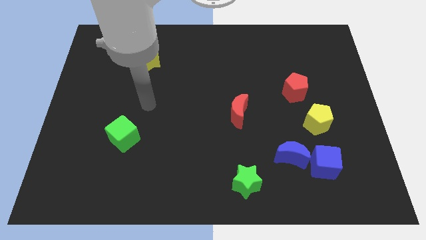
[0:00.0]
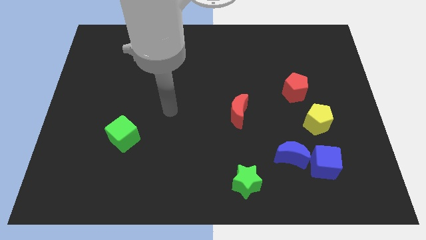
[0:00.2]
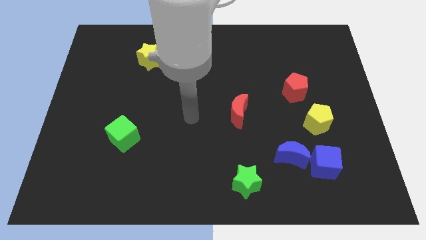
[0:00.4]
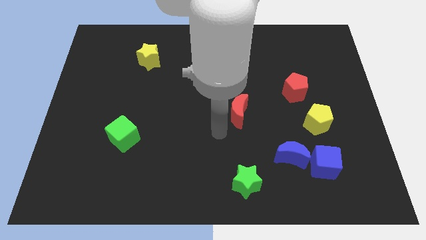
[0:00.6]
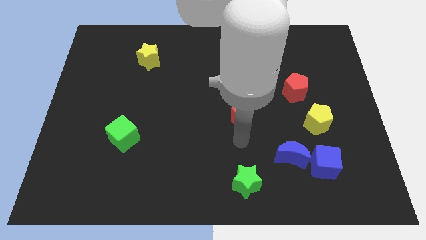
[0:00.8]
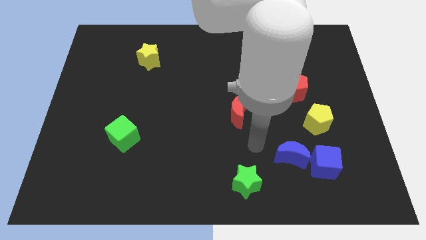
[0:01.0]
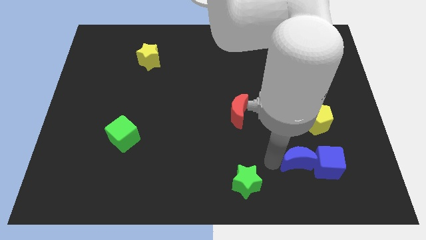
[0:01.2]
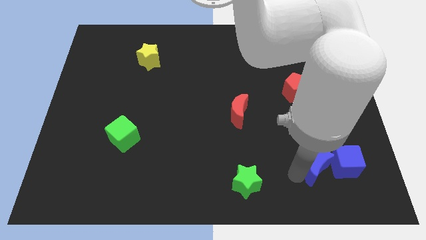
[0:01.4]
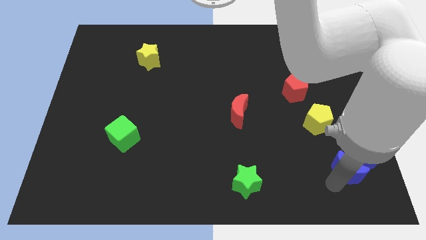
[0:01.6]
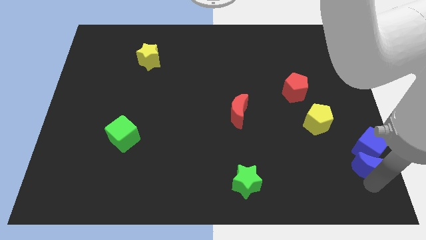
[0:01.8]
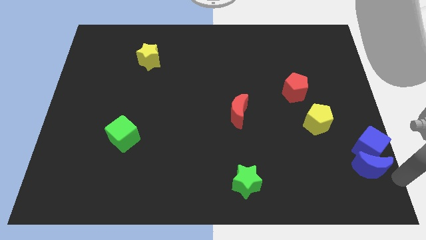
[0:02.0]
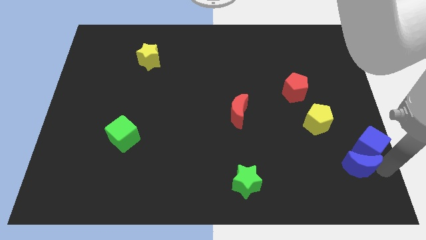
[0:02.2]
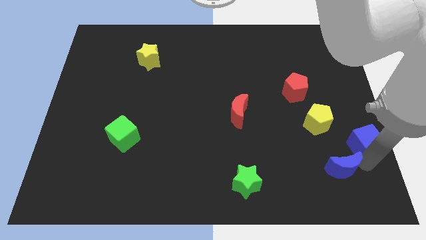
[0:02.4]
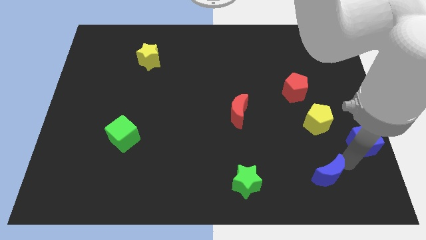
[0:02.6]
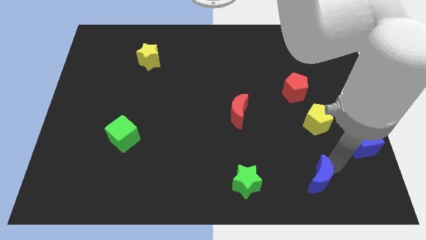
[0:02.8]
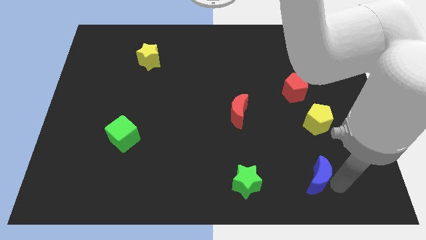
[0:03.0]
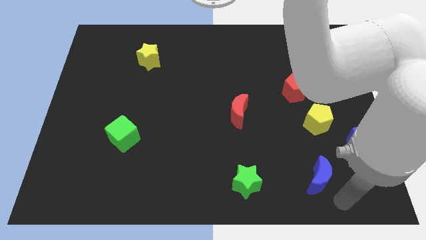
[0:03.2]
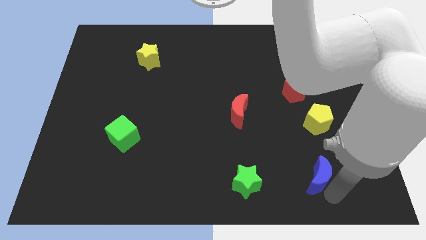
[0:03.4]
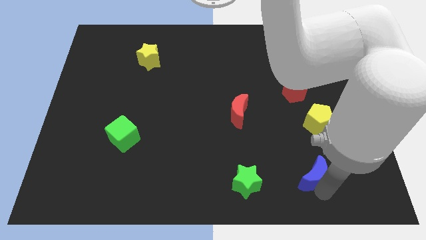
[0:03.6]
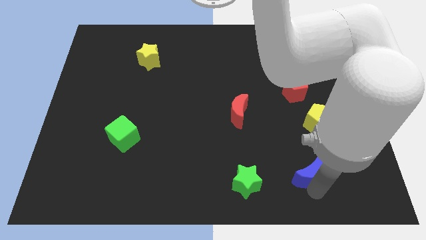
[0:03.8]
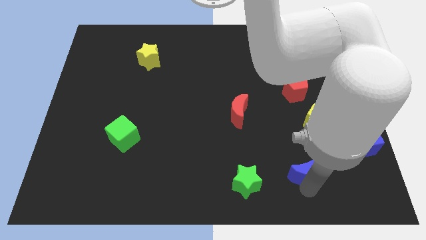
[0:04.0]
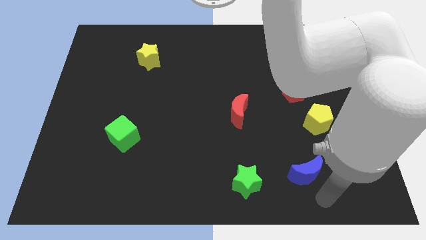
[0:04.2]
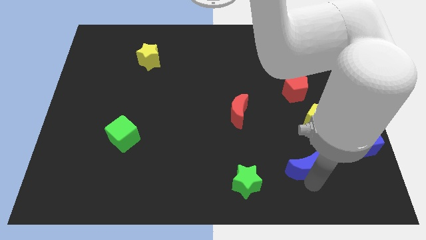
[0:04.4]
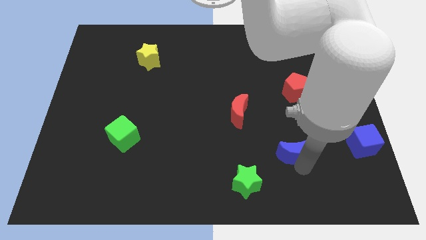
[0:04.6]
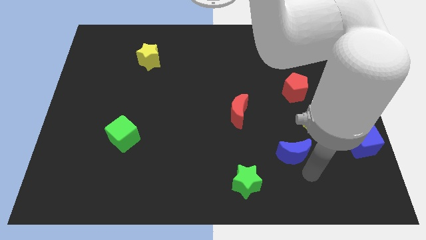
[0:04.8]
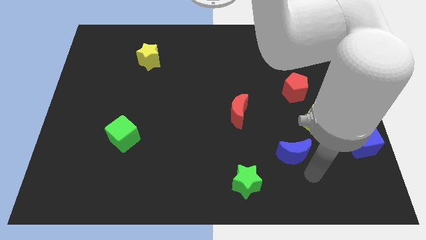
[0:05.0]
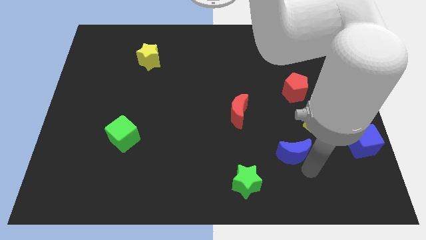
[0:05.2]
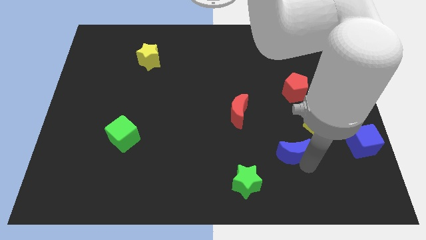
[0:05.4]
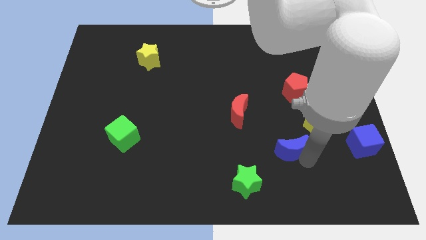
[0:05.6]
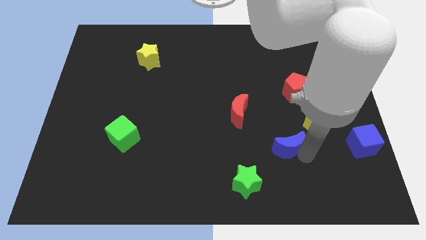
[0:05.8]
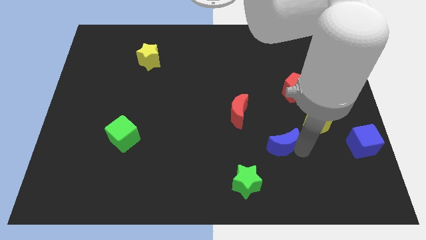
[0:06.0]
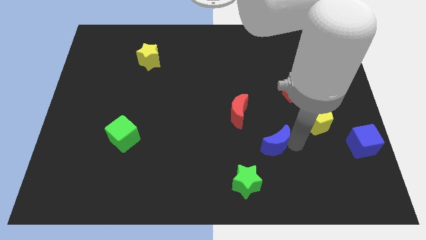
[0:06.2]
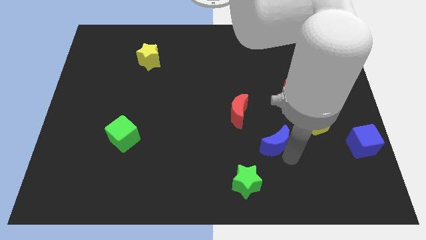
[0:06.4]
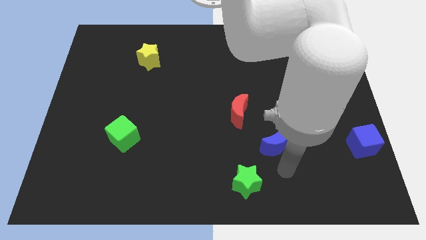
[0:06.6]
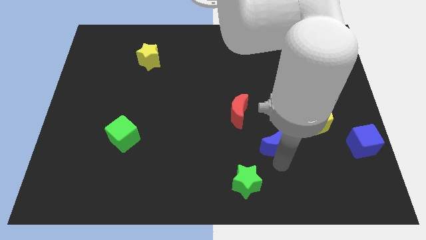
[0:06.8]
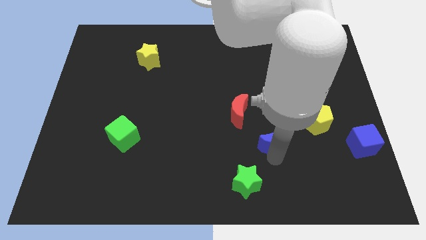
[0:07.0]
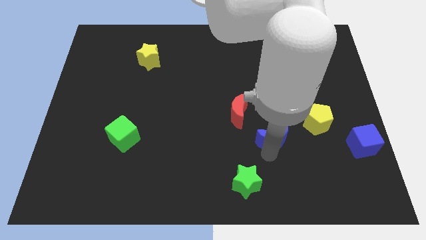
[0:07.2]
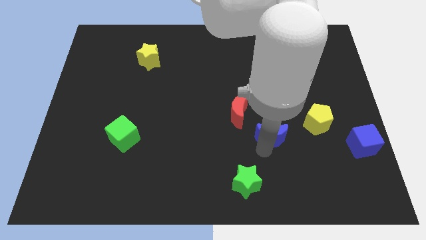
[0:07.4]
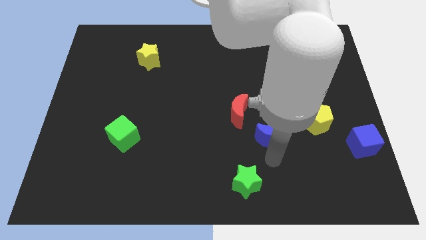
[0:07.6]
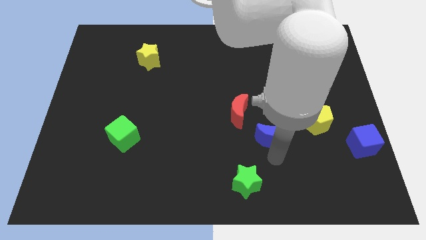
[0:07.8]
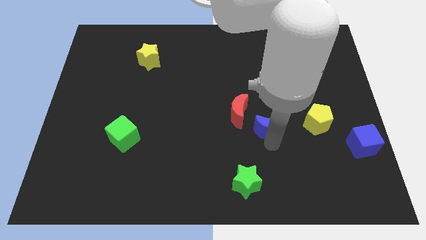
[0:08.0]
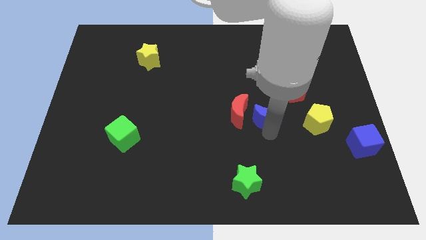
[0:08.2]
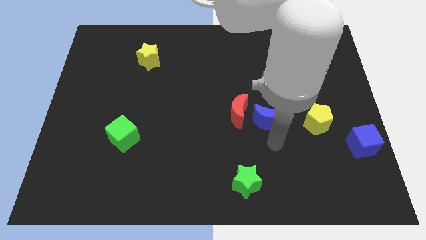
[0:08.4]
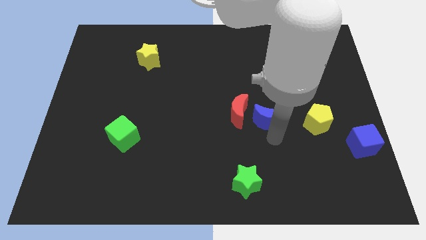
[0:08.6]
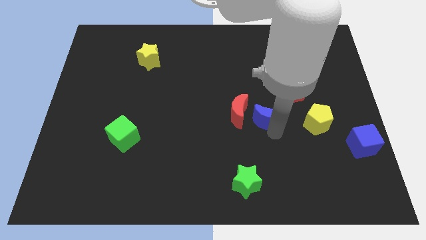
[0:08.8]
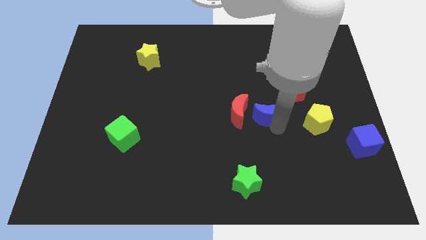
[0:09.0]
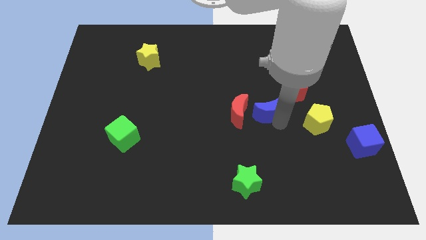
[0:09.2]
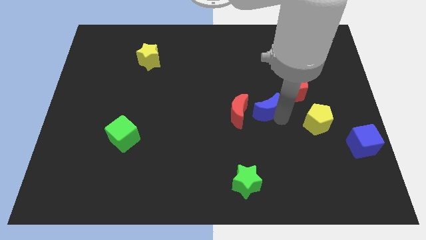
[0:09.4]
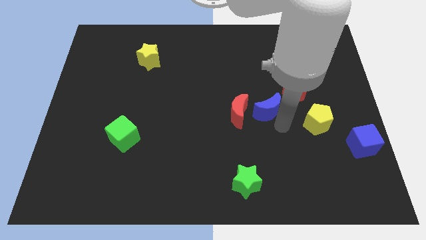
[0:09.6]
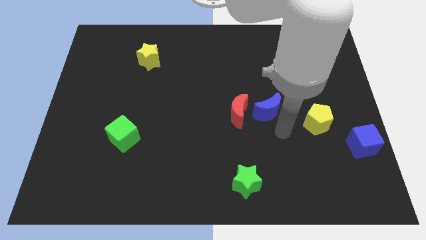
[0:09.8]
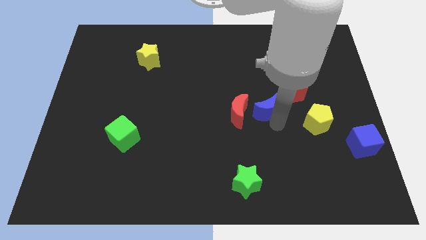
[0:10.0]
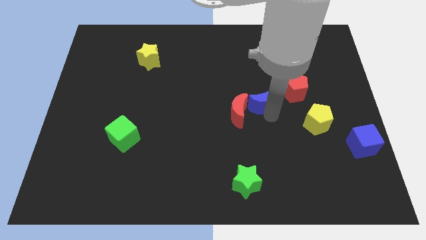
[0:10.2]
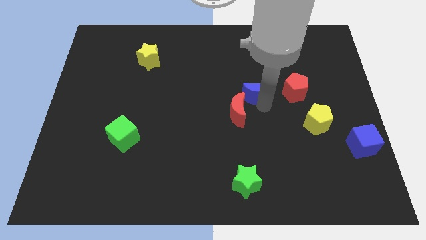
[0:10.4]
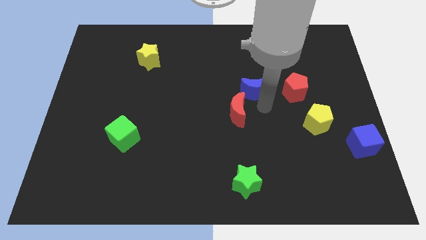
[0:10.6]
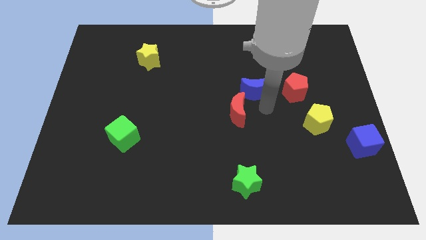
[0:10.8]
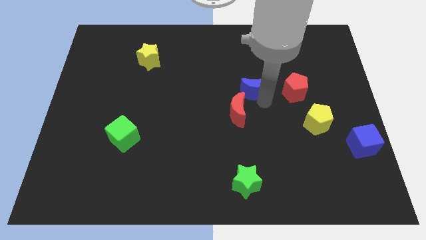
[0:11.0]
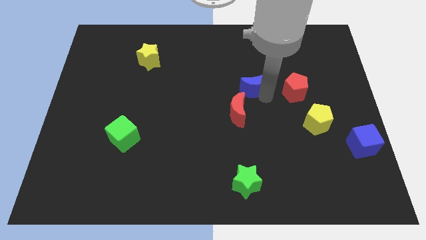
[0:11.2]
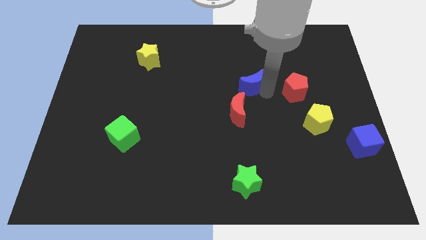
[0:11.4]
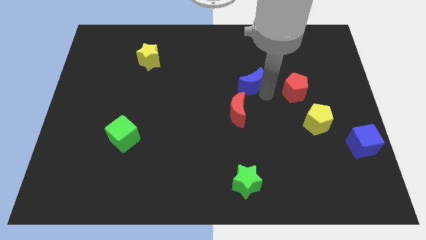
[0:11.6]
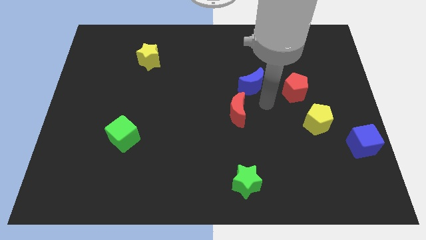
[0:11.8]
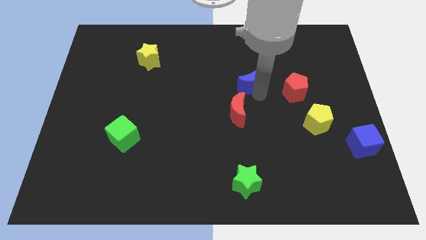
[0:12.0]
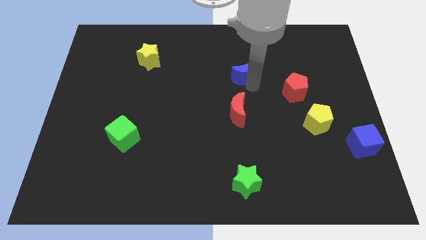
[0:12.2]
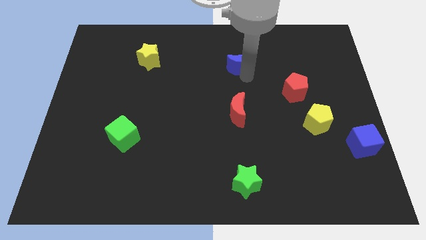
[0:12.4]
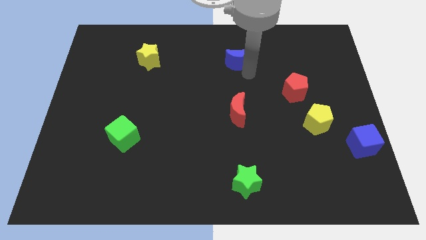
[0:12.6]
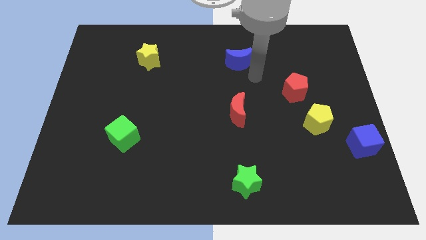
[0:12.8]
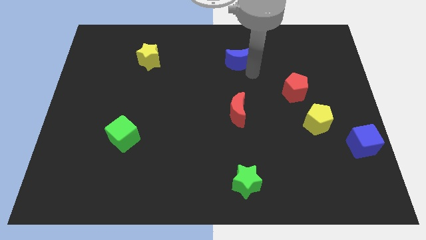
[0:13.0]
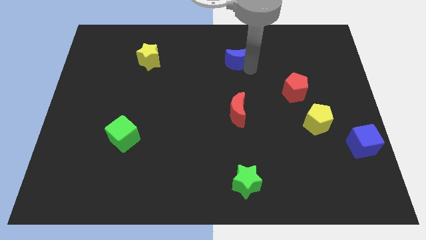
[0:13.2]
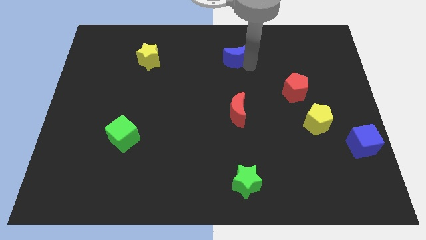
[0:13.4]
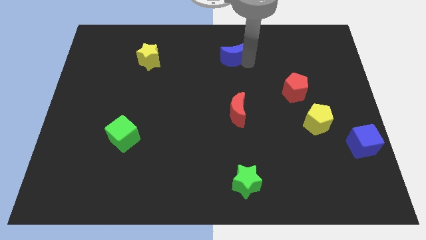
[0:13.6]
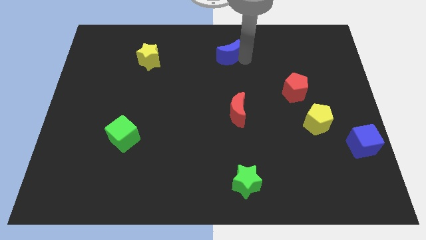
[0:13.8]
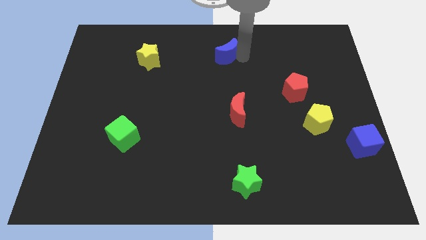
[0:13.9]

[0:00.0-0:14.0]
put the blue moon to the top side
